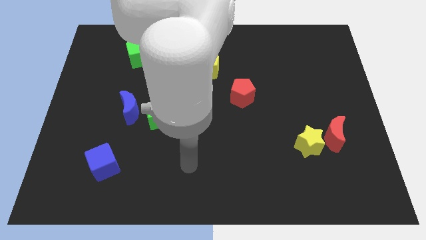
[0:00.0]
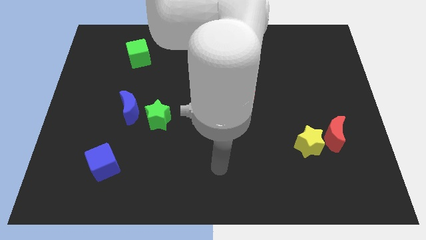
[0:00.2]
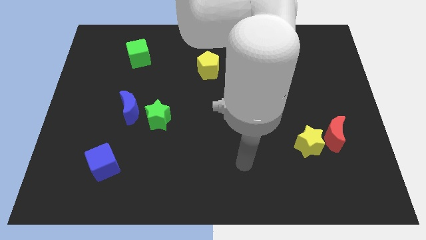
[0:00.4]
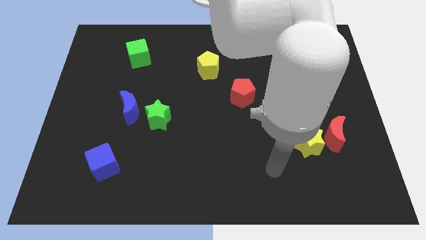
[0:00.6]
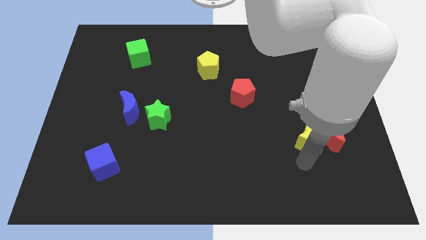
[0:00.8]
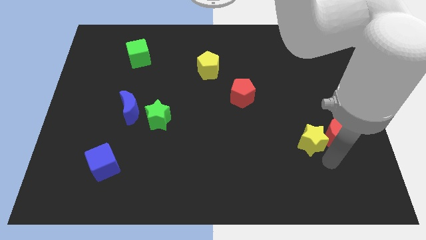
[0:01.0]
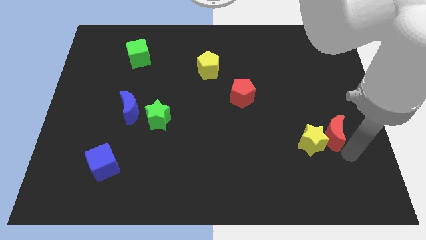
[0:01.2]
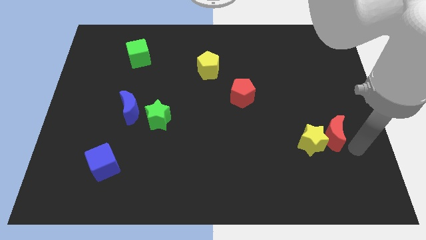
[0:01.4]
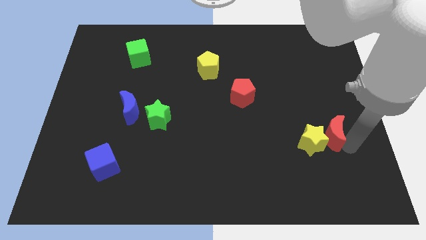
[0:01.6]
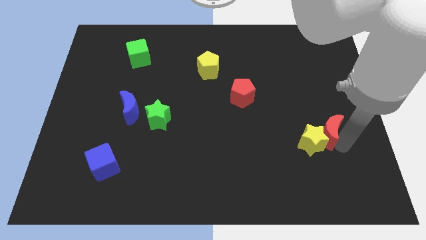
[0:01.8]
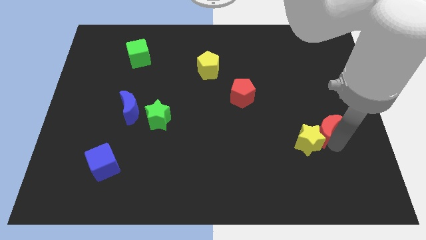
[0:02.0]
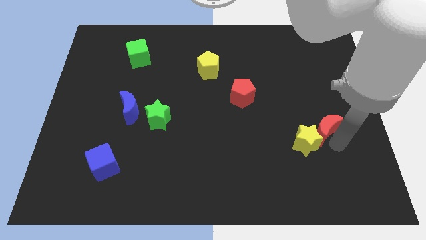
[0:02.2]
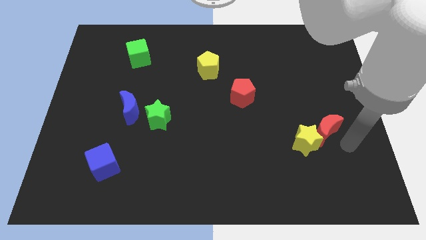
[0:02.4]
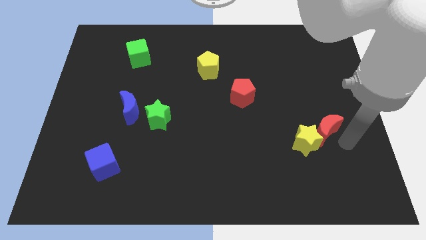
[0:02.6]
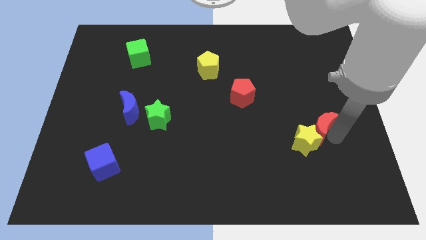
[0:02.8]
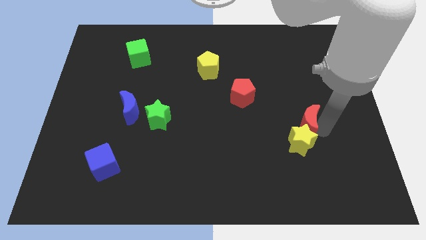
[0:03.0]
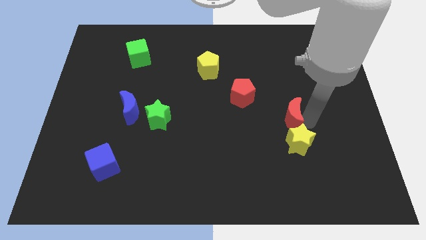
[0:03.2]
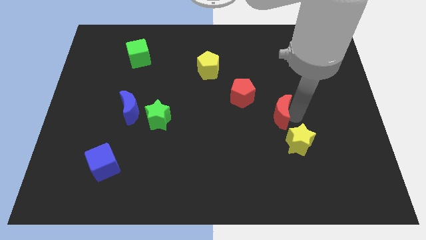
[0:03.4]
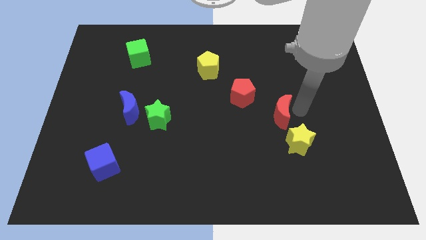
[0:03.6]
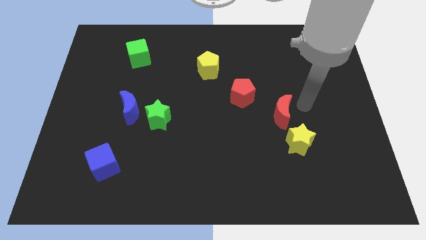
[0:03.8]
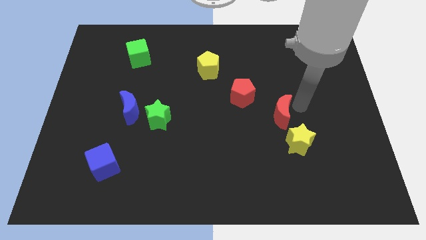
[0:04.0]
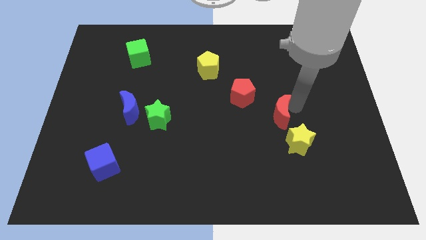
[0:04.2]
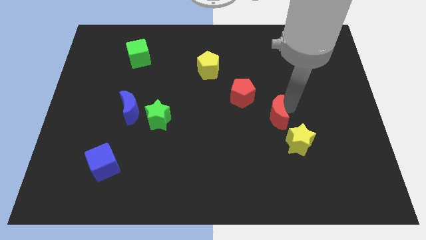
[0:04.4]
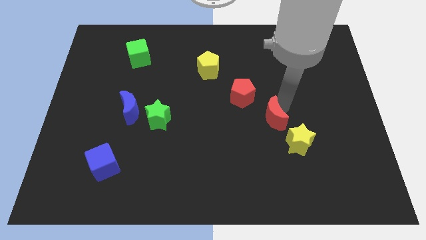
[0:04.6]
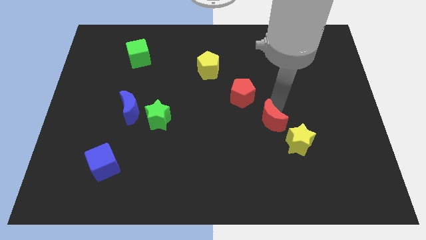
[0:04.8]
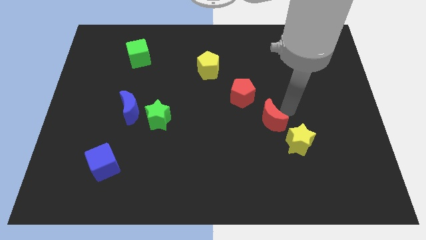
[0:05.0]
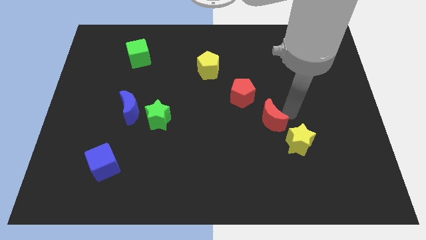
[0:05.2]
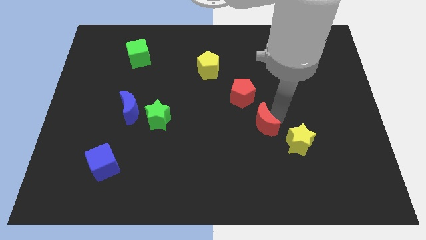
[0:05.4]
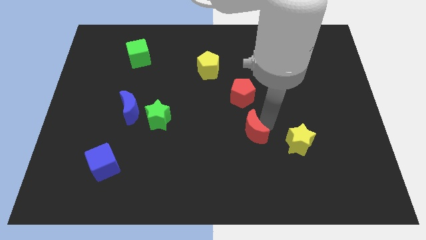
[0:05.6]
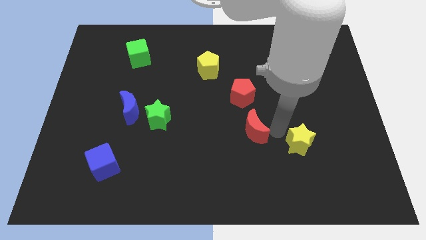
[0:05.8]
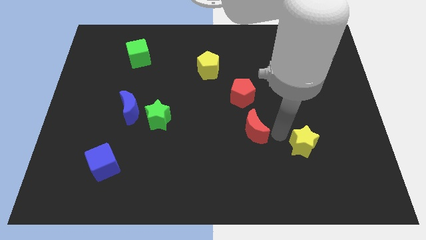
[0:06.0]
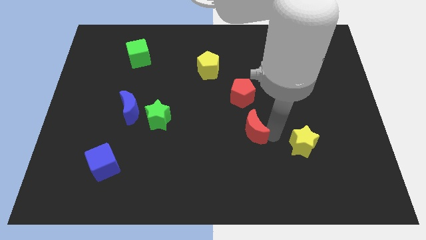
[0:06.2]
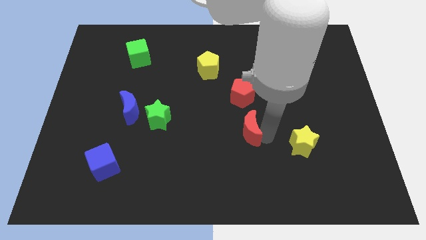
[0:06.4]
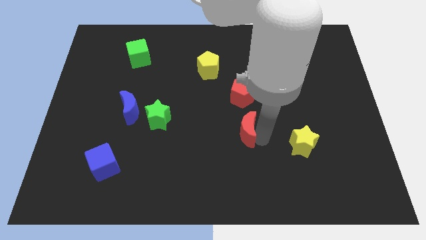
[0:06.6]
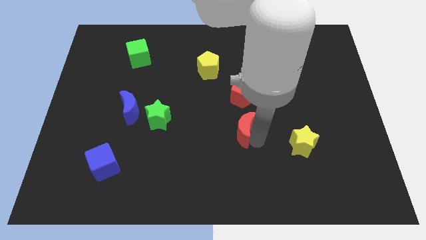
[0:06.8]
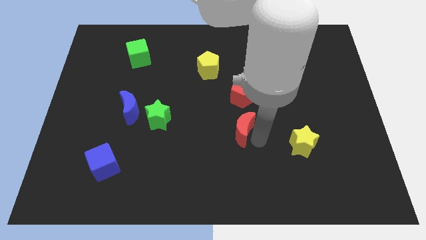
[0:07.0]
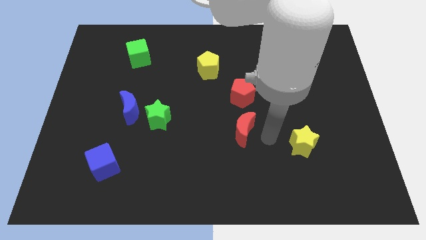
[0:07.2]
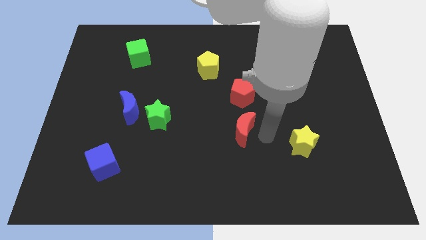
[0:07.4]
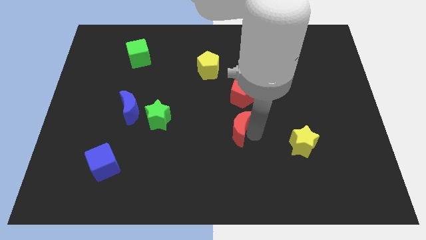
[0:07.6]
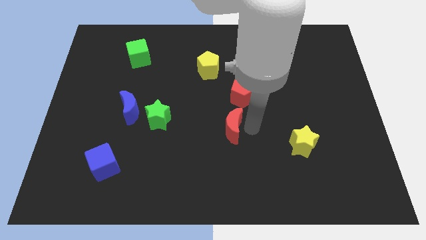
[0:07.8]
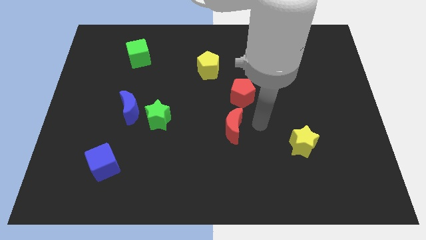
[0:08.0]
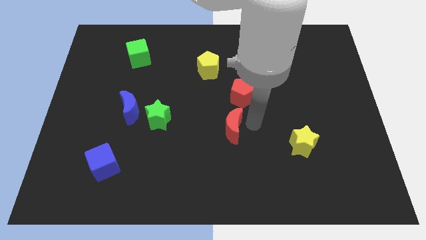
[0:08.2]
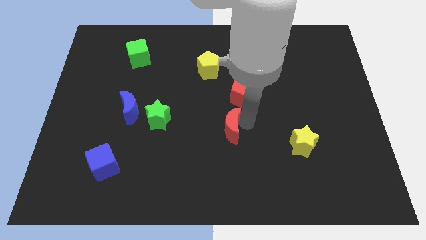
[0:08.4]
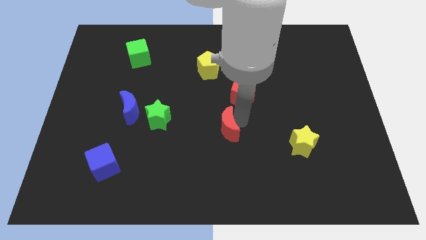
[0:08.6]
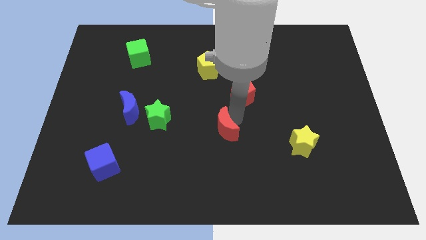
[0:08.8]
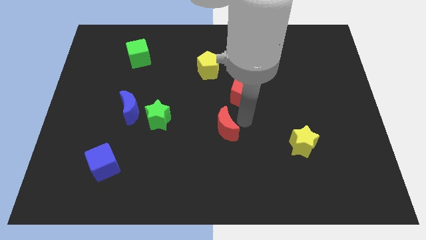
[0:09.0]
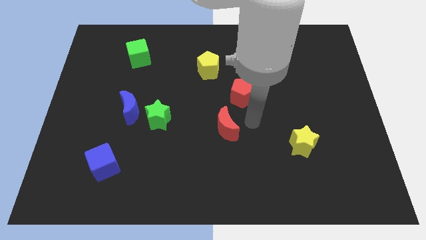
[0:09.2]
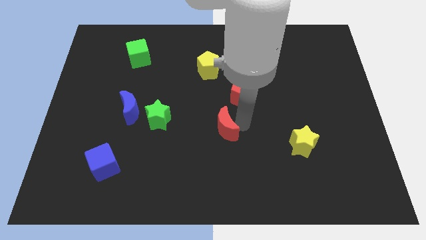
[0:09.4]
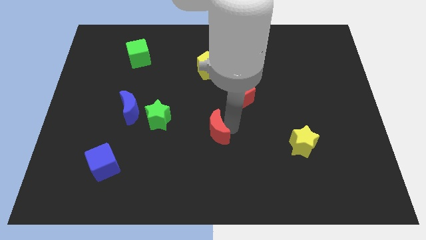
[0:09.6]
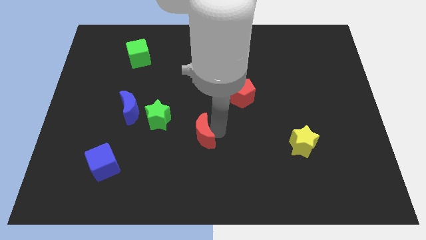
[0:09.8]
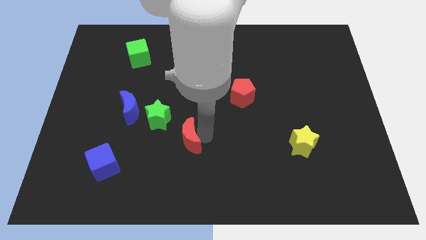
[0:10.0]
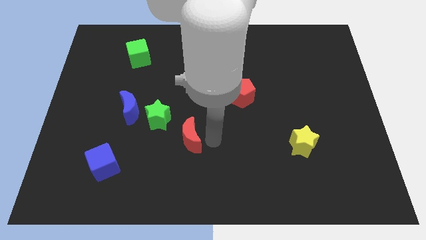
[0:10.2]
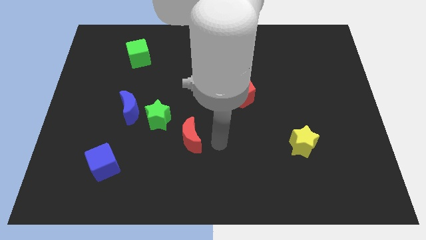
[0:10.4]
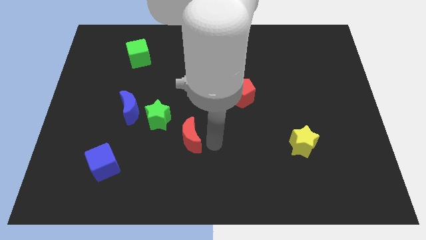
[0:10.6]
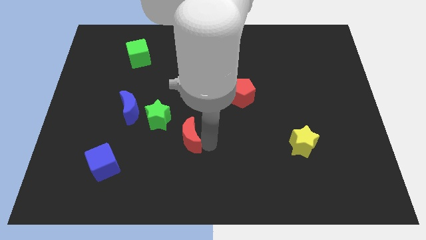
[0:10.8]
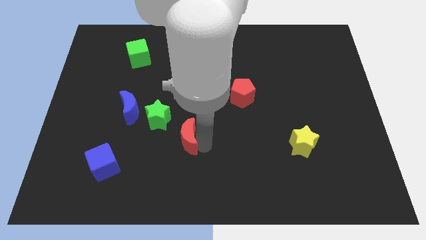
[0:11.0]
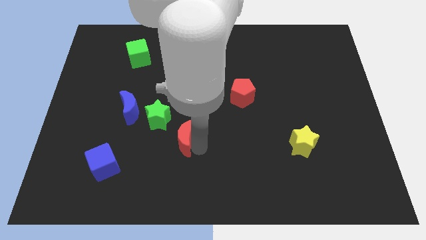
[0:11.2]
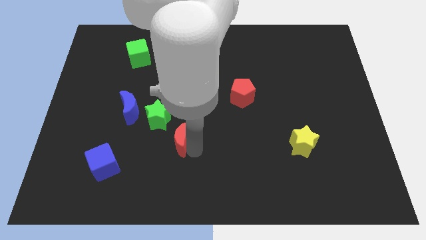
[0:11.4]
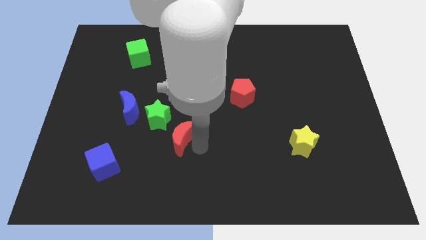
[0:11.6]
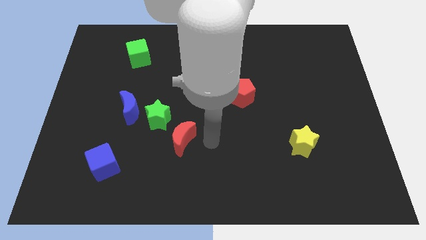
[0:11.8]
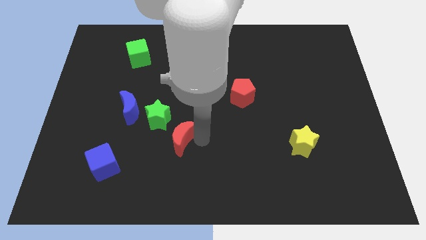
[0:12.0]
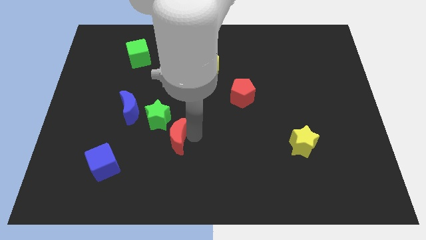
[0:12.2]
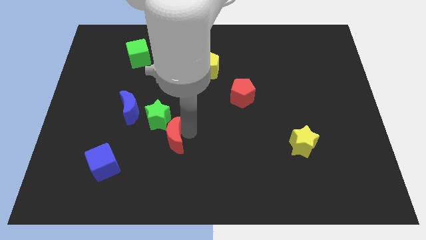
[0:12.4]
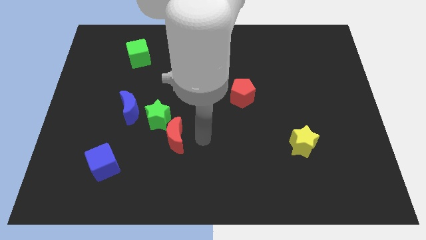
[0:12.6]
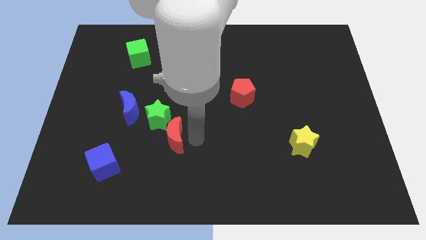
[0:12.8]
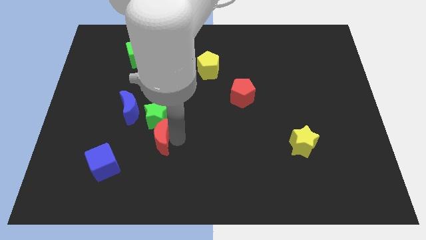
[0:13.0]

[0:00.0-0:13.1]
push the red moon diagonally down and to the left of the green star
